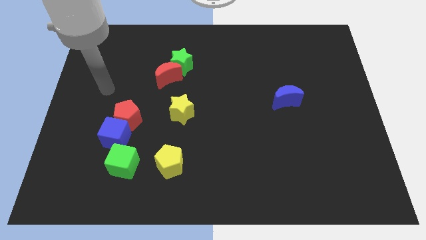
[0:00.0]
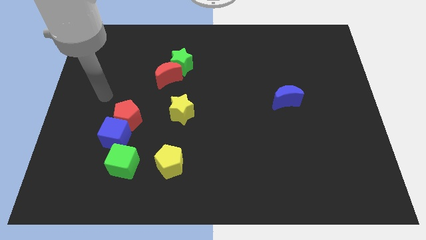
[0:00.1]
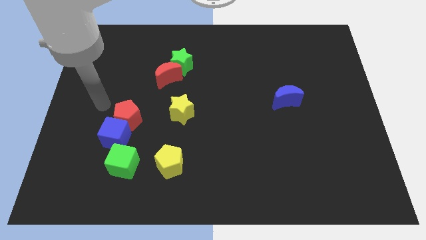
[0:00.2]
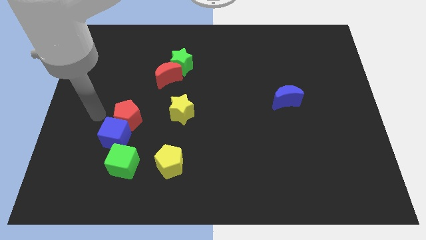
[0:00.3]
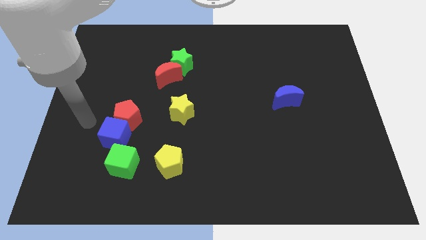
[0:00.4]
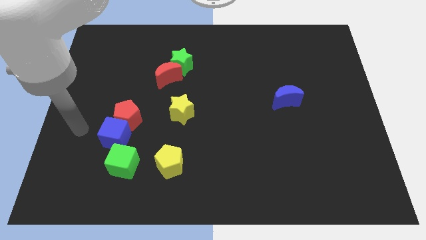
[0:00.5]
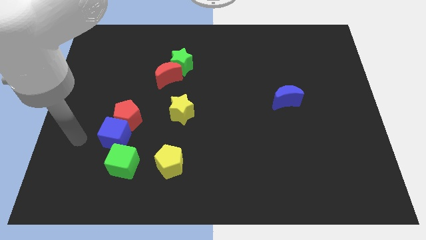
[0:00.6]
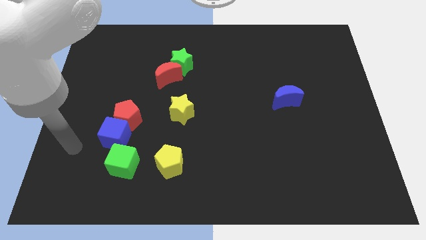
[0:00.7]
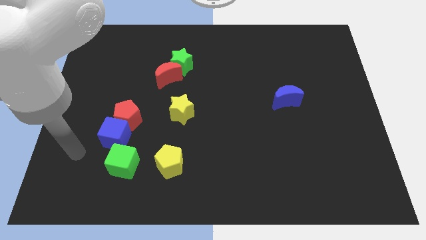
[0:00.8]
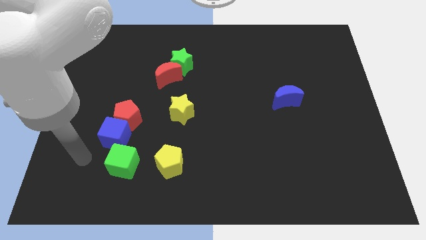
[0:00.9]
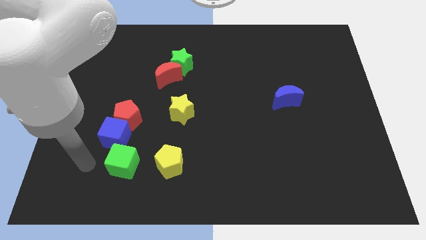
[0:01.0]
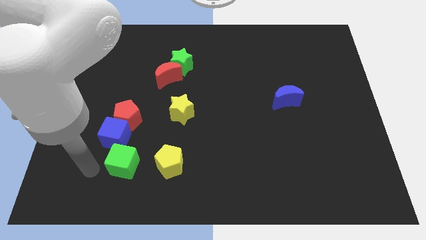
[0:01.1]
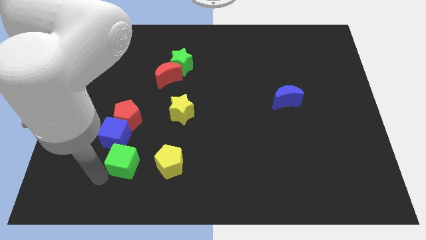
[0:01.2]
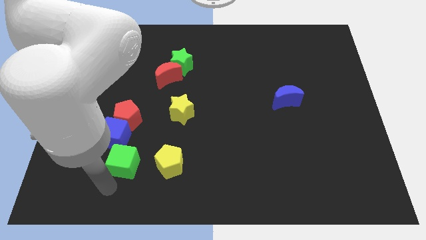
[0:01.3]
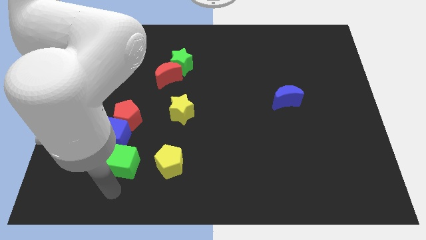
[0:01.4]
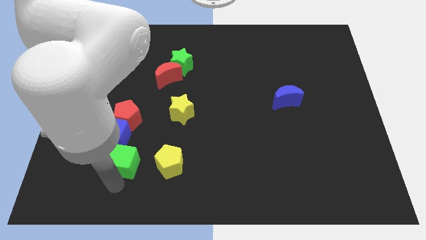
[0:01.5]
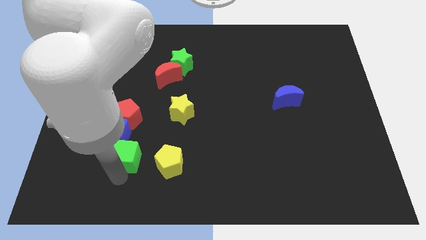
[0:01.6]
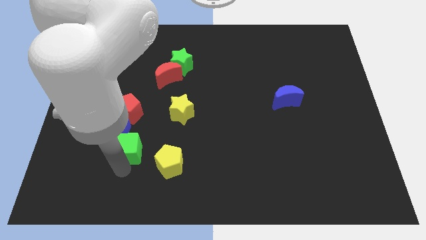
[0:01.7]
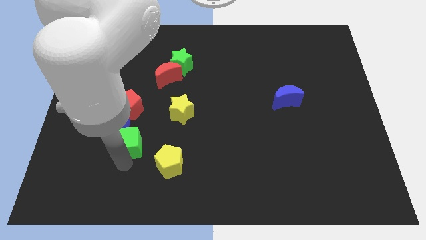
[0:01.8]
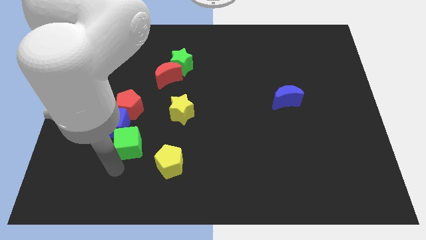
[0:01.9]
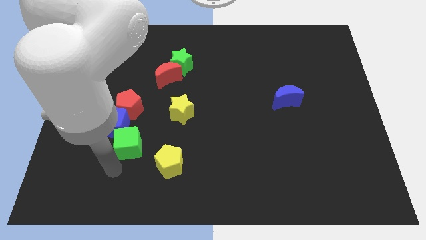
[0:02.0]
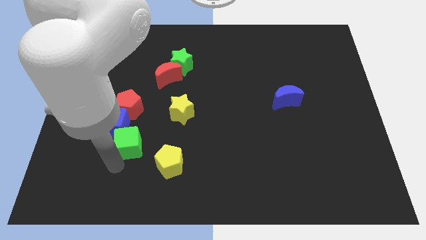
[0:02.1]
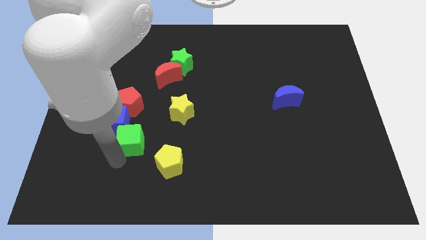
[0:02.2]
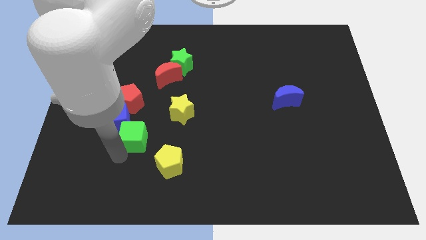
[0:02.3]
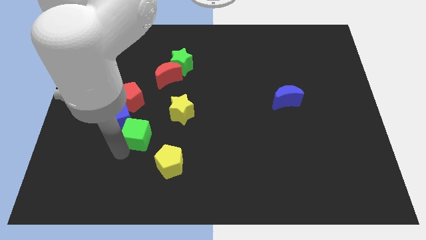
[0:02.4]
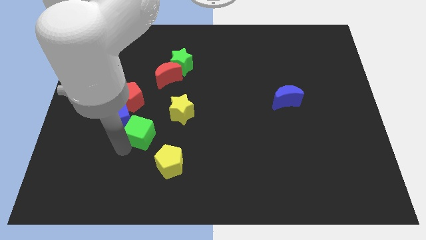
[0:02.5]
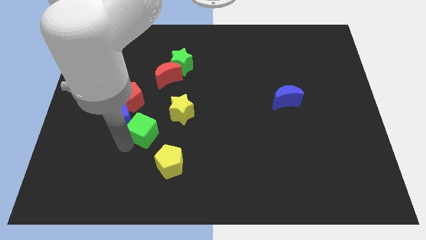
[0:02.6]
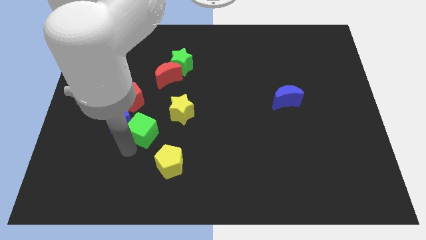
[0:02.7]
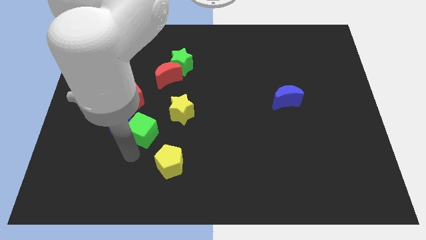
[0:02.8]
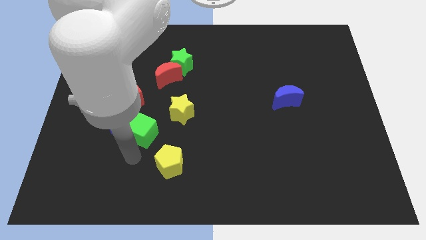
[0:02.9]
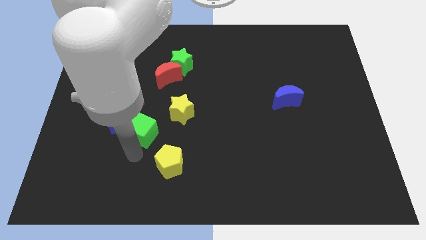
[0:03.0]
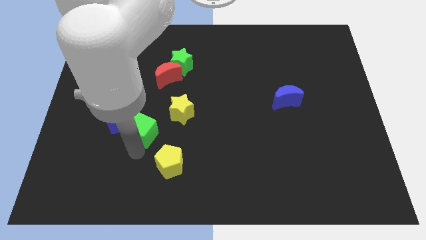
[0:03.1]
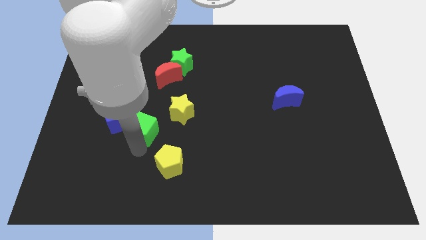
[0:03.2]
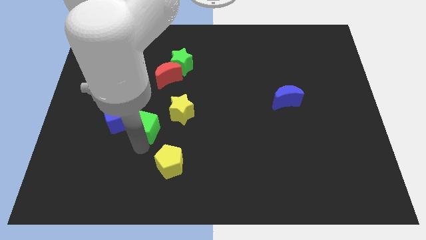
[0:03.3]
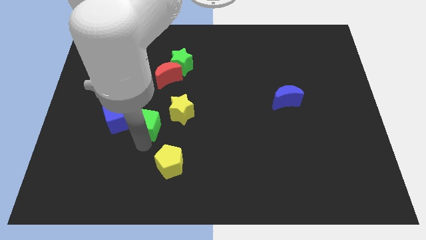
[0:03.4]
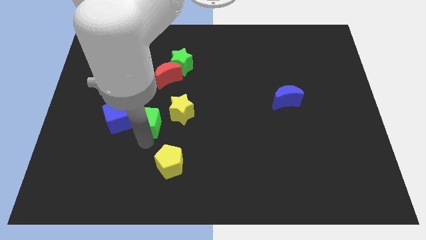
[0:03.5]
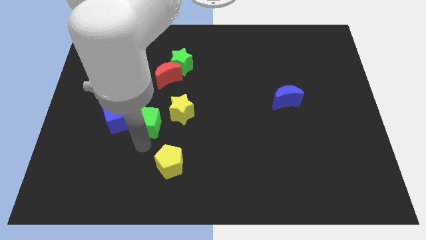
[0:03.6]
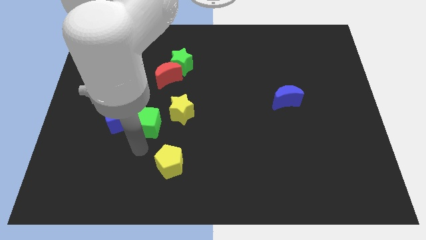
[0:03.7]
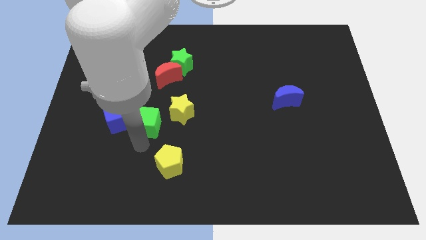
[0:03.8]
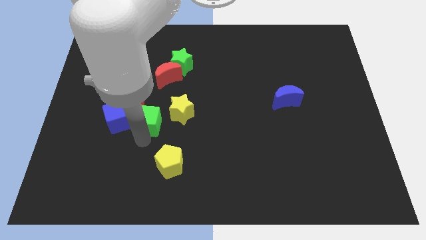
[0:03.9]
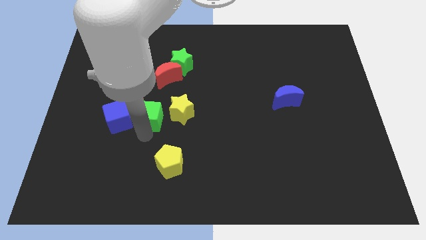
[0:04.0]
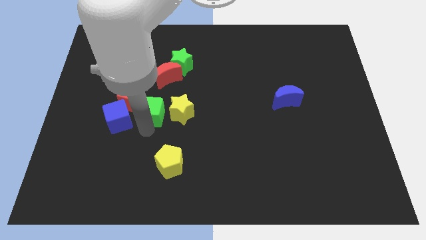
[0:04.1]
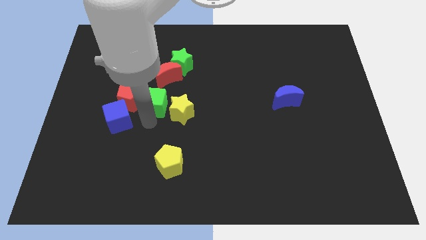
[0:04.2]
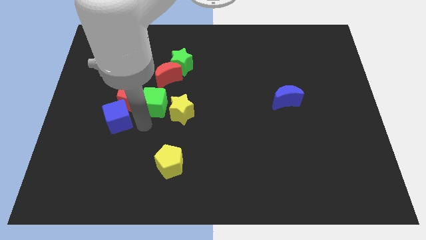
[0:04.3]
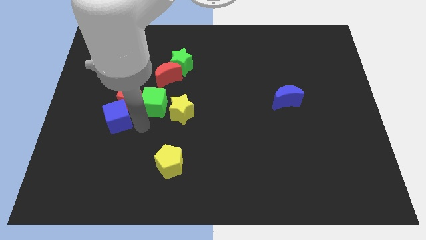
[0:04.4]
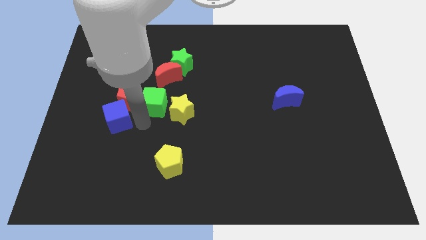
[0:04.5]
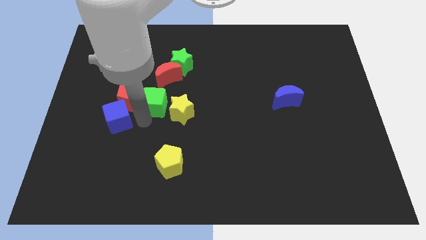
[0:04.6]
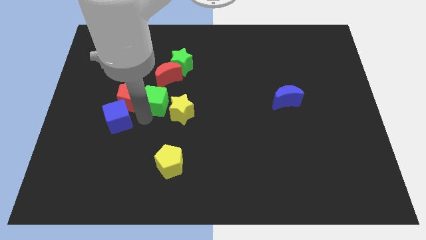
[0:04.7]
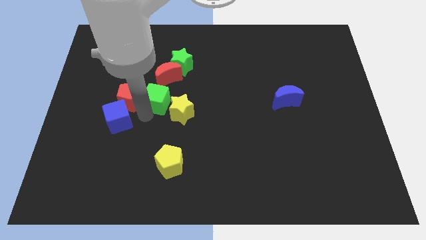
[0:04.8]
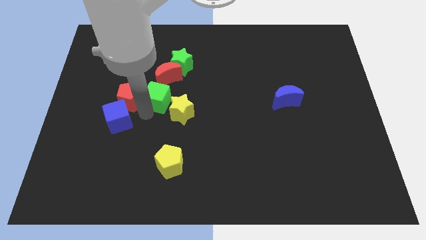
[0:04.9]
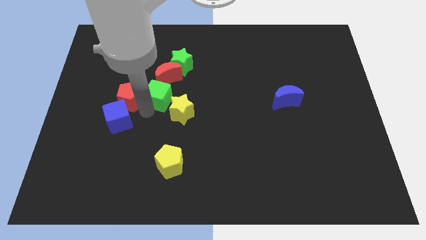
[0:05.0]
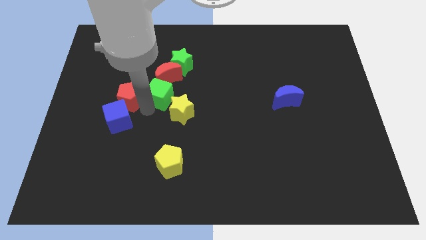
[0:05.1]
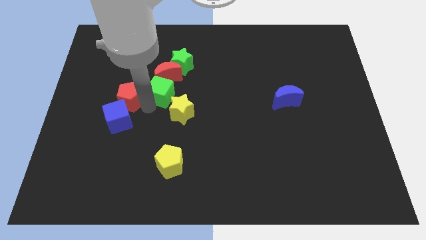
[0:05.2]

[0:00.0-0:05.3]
push the green cube next to the red moon

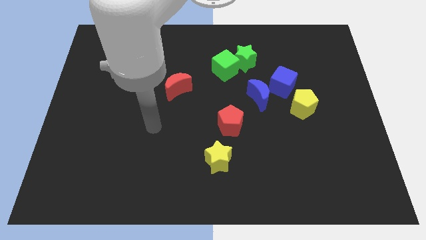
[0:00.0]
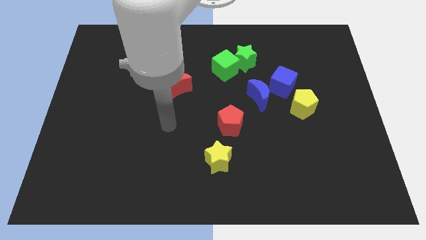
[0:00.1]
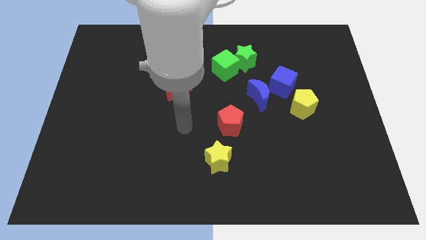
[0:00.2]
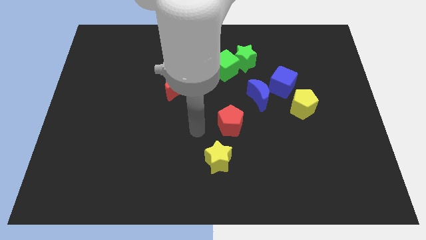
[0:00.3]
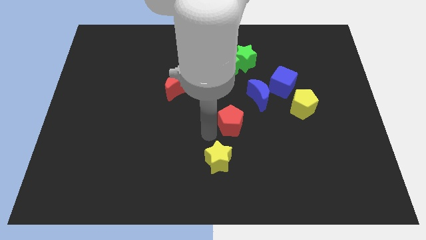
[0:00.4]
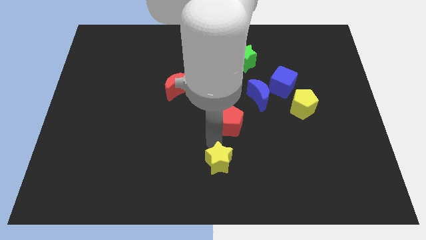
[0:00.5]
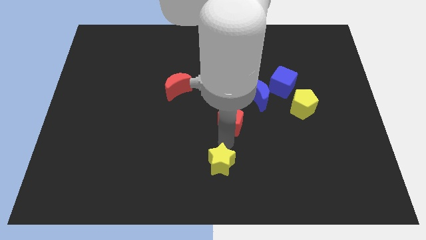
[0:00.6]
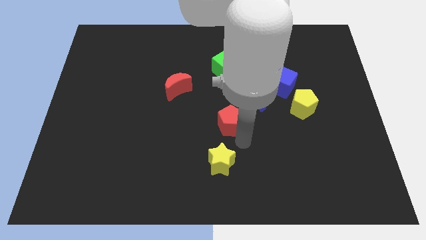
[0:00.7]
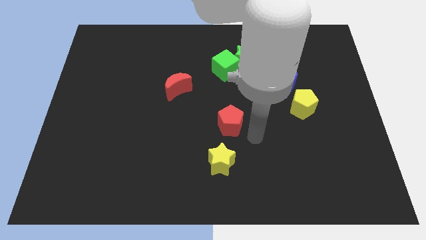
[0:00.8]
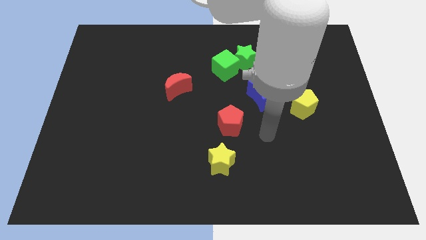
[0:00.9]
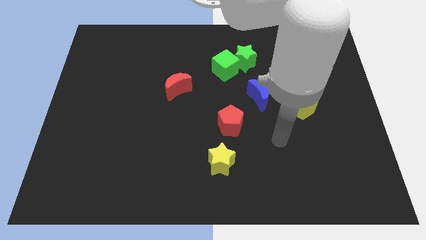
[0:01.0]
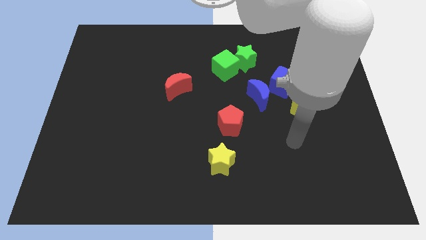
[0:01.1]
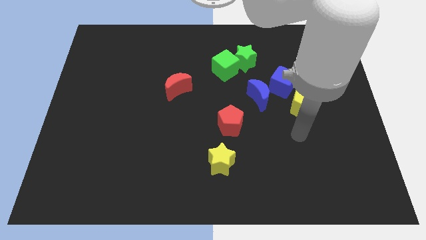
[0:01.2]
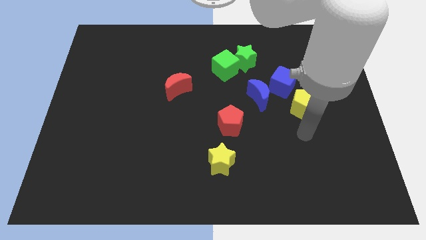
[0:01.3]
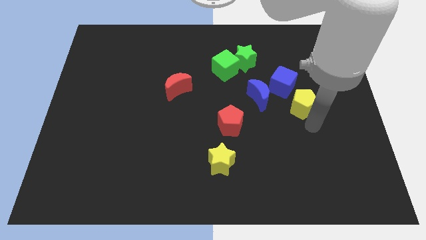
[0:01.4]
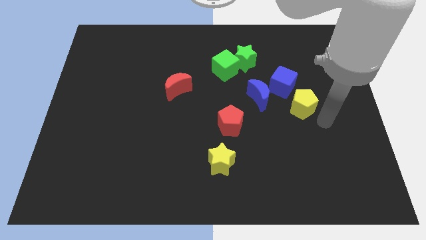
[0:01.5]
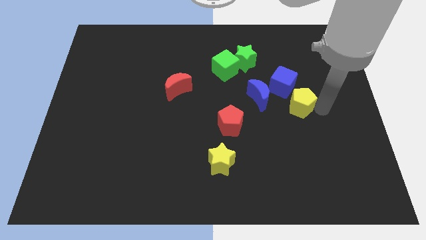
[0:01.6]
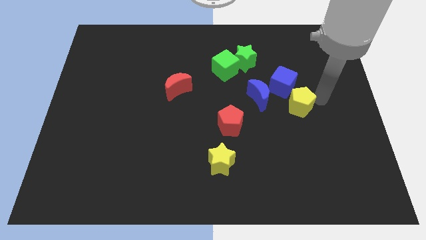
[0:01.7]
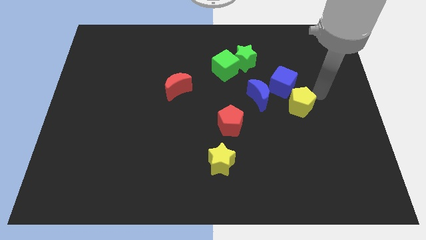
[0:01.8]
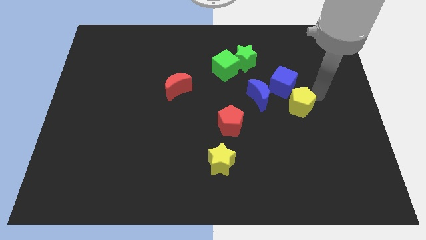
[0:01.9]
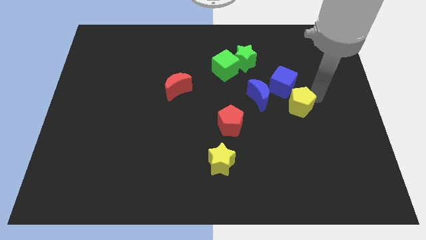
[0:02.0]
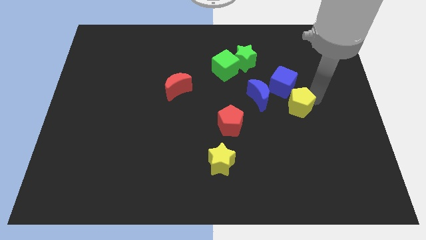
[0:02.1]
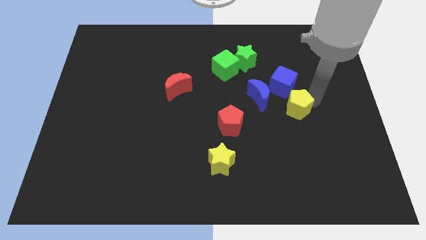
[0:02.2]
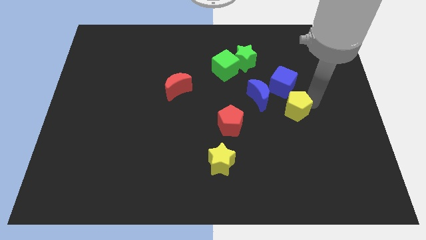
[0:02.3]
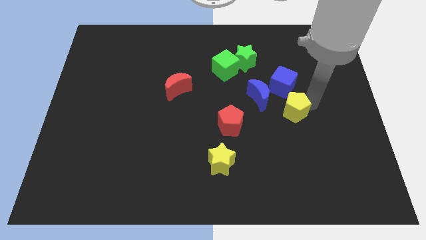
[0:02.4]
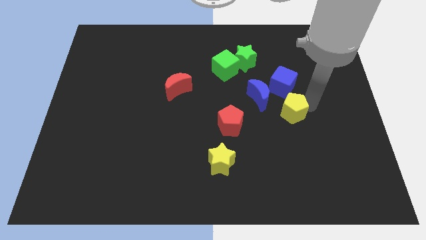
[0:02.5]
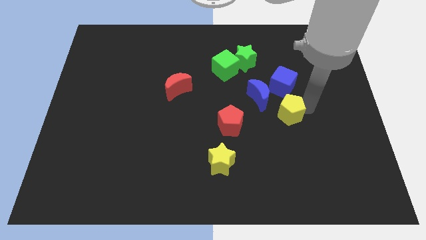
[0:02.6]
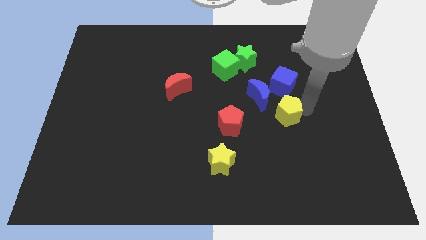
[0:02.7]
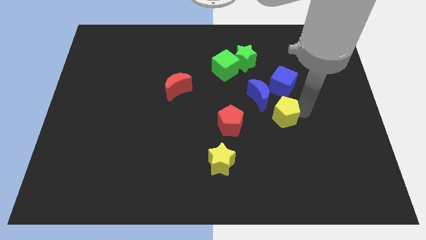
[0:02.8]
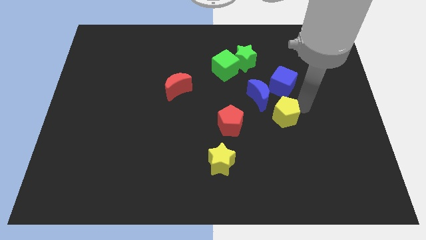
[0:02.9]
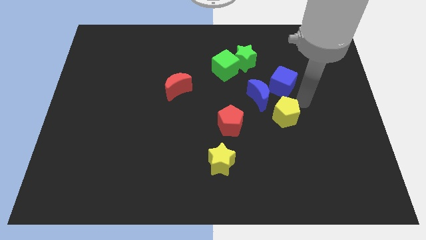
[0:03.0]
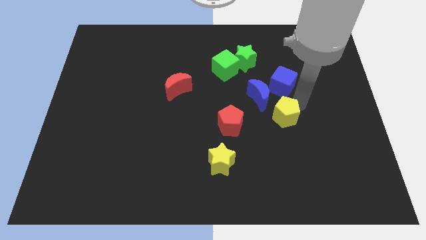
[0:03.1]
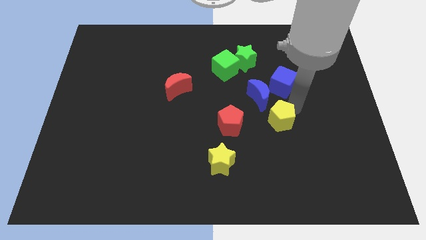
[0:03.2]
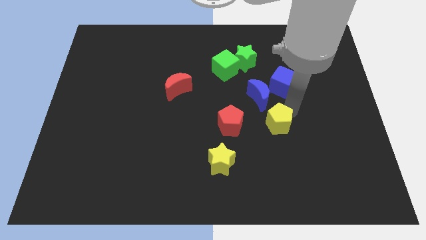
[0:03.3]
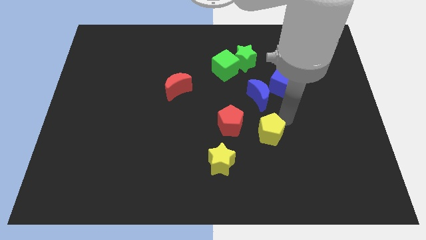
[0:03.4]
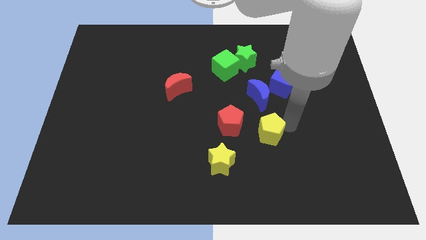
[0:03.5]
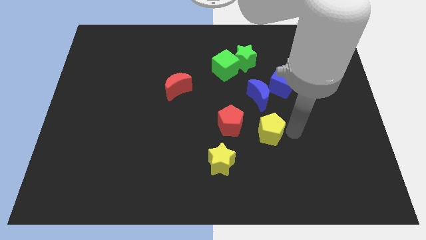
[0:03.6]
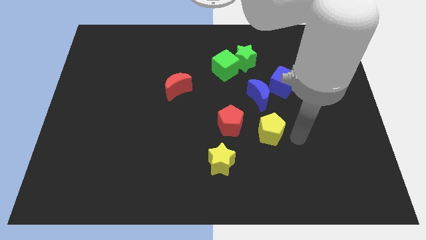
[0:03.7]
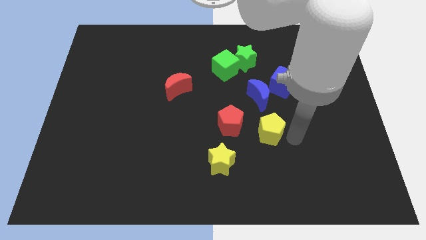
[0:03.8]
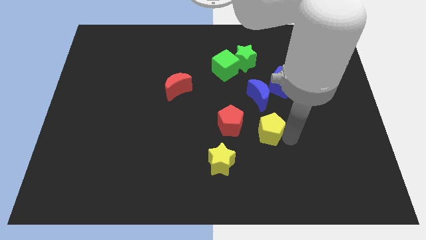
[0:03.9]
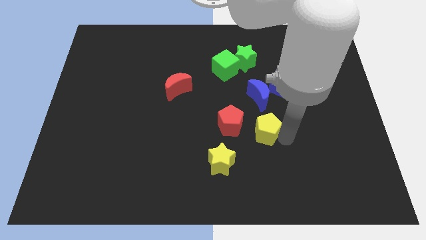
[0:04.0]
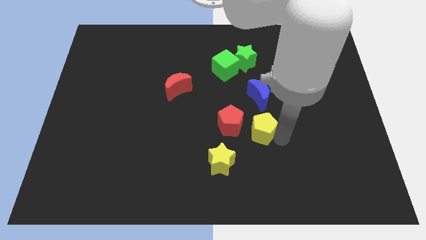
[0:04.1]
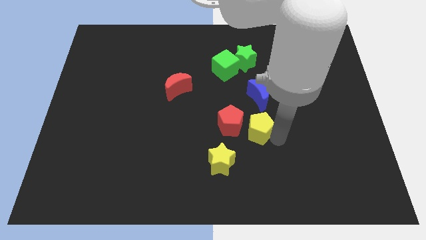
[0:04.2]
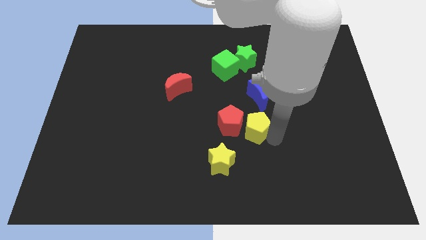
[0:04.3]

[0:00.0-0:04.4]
slide the yellow pentagon close to the red pentagon
